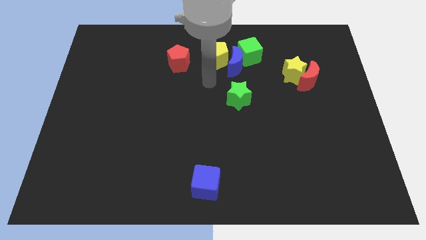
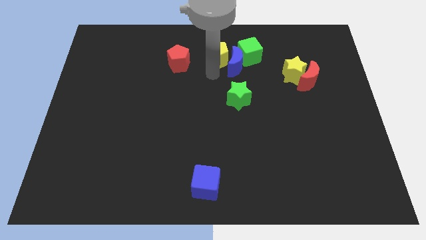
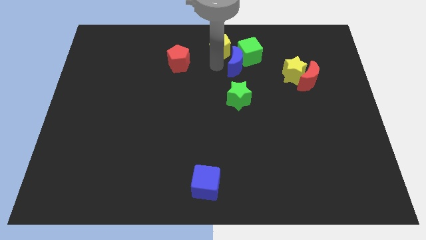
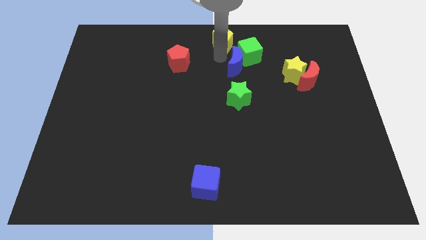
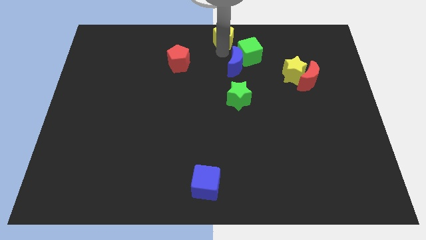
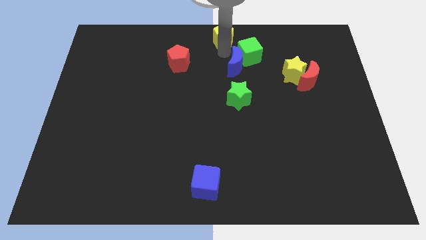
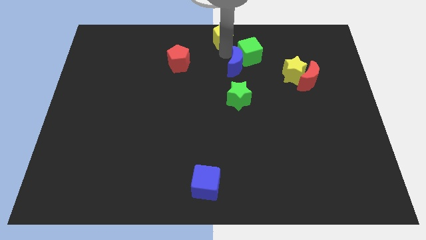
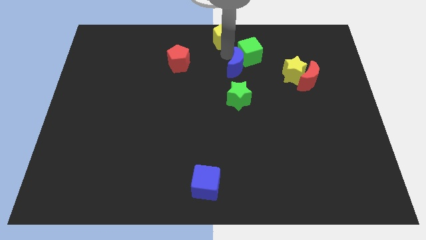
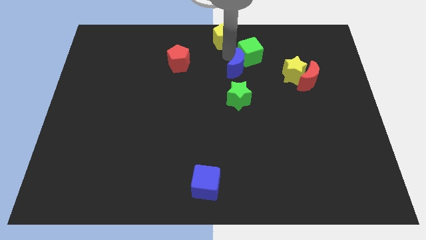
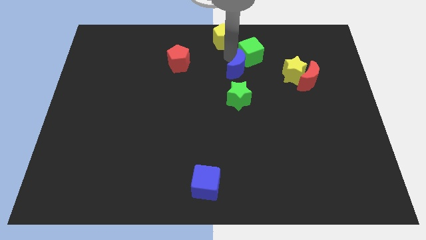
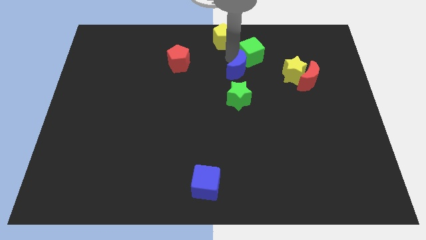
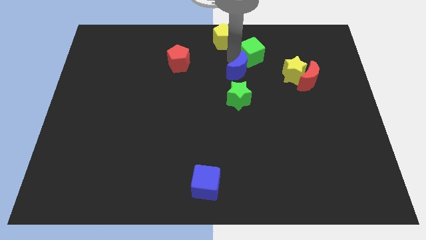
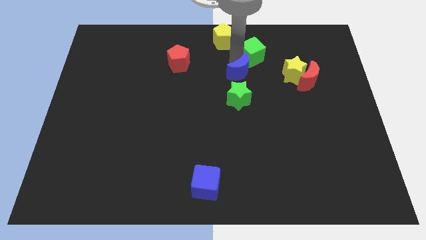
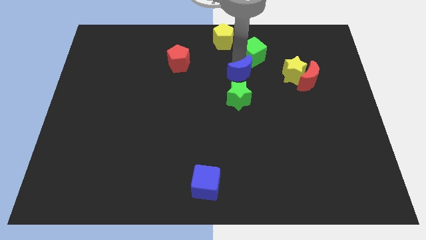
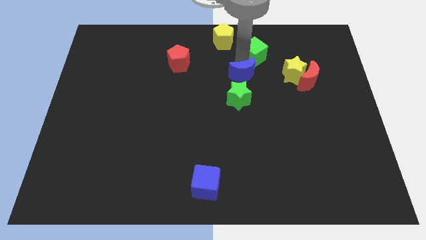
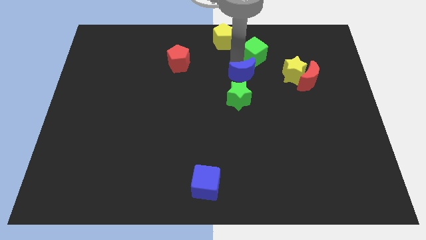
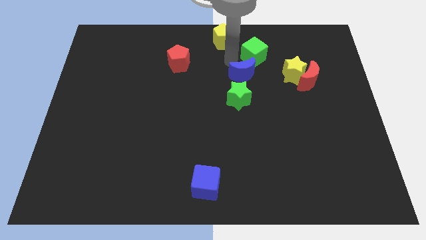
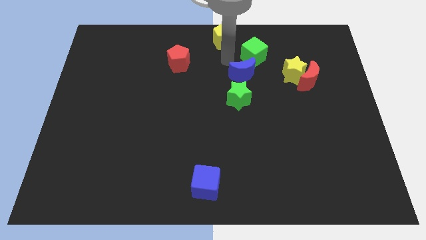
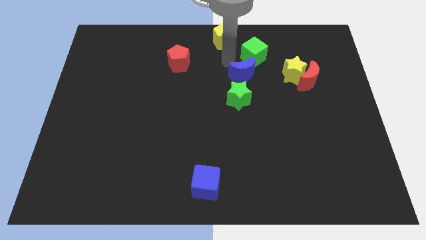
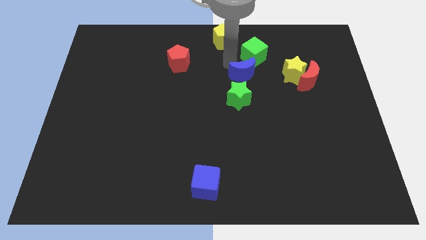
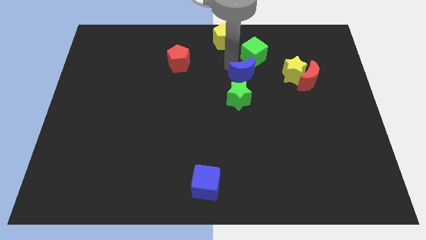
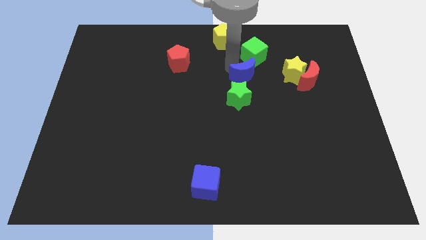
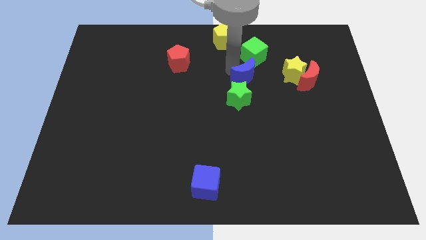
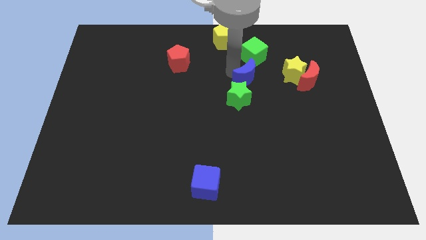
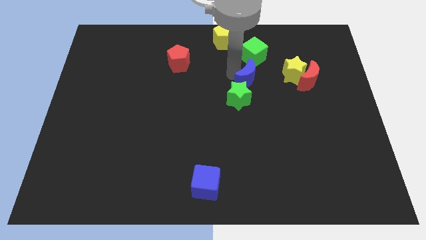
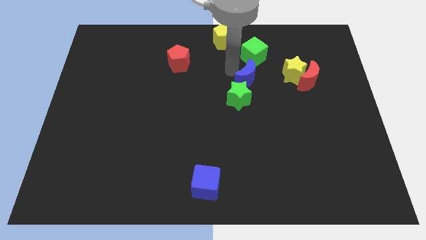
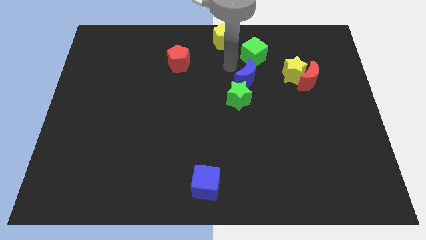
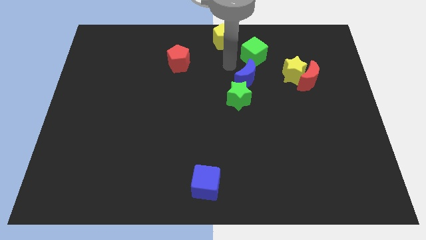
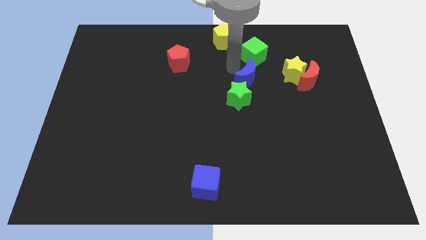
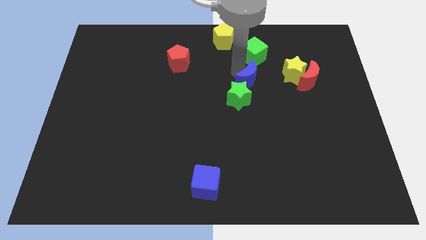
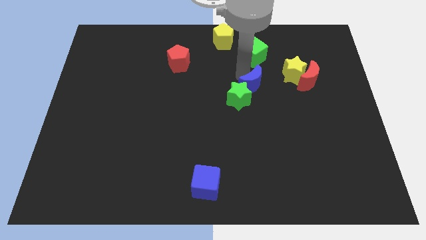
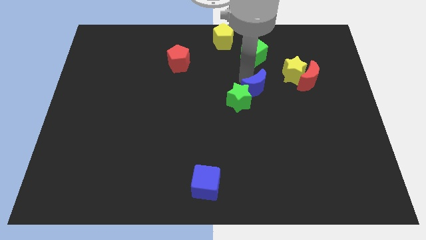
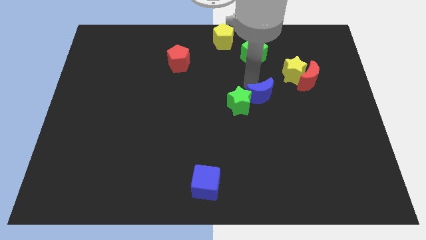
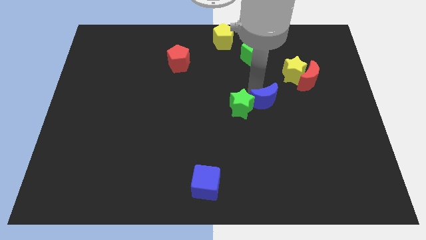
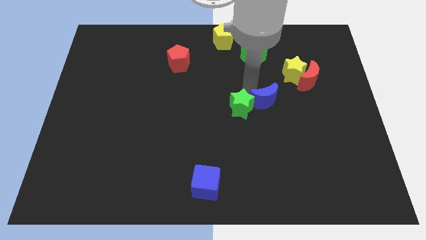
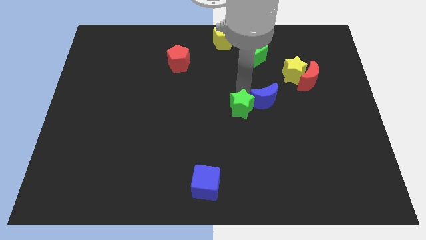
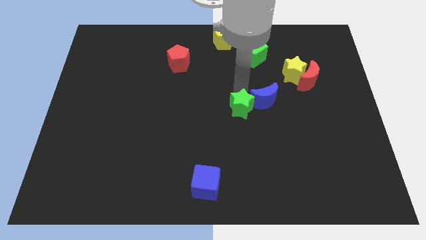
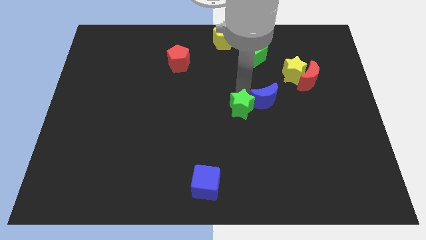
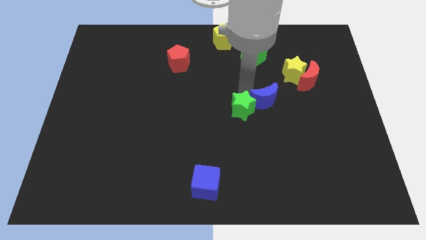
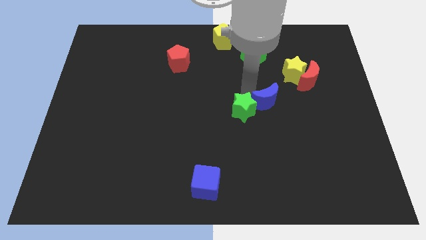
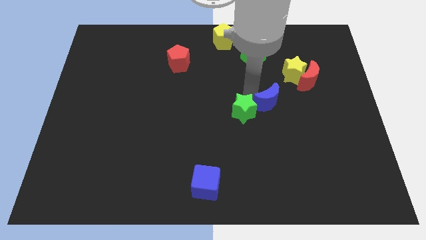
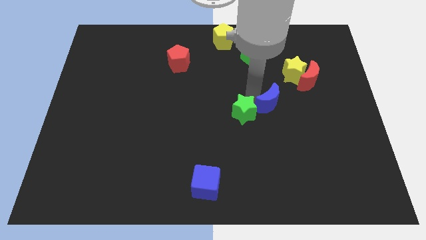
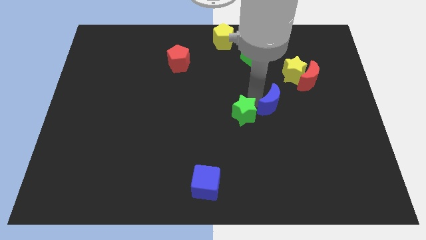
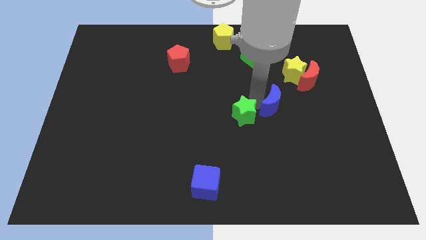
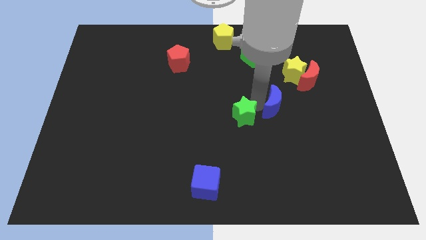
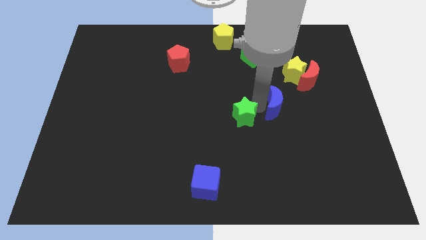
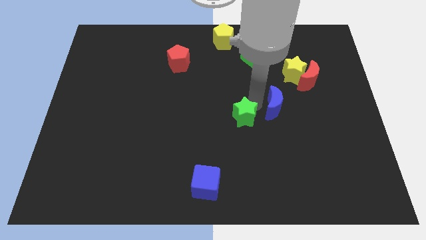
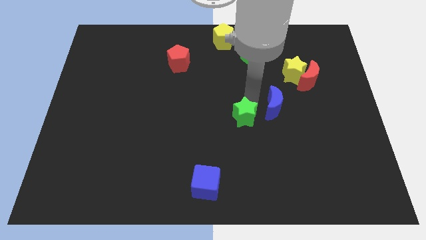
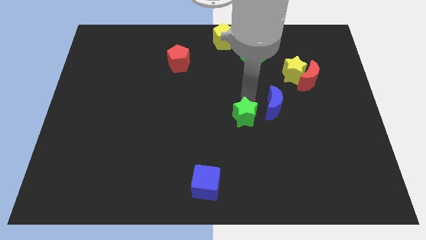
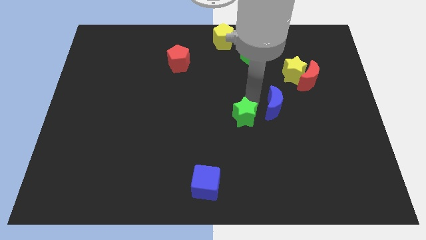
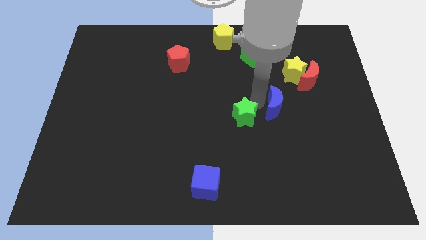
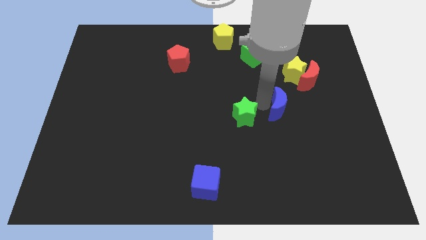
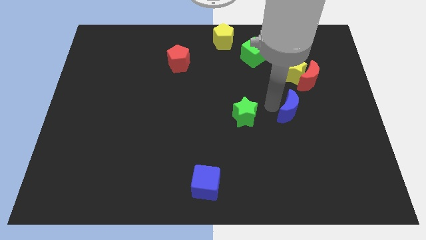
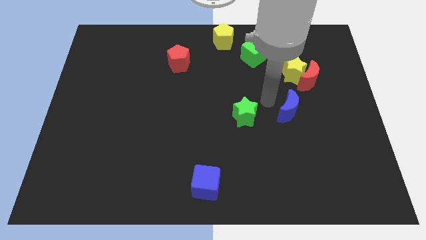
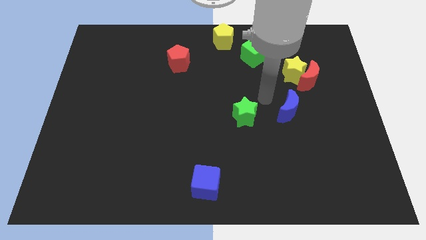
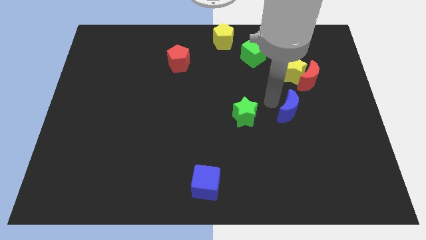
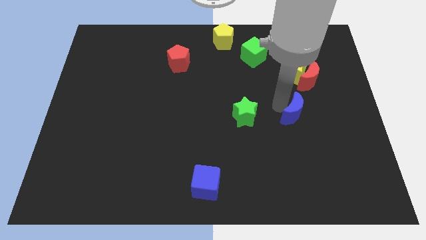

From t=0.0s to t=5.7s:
push the blue moon downwards and right diagonally

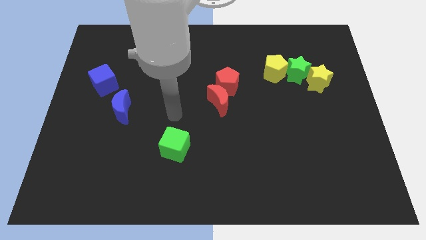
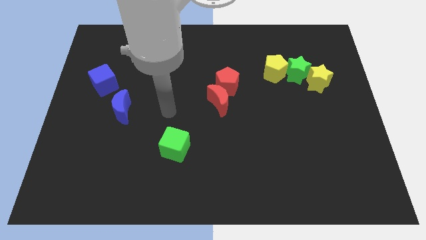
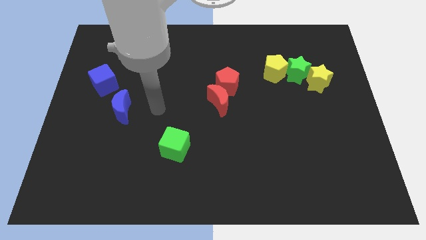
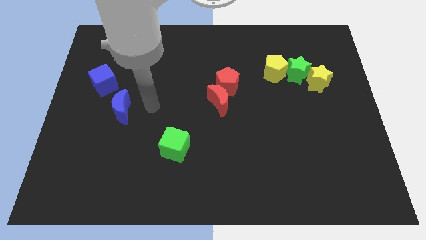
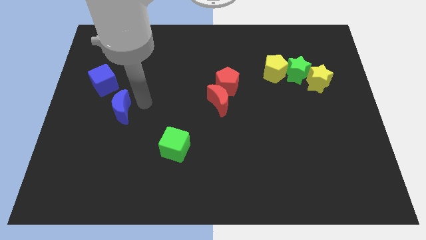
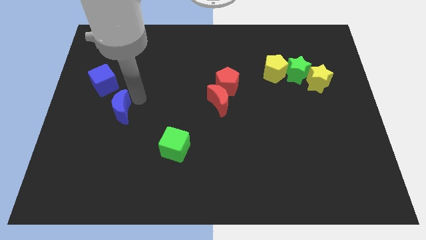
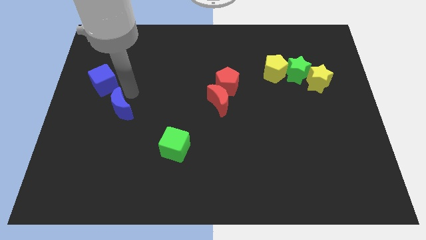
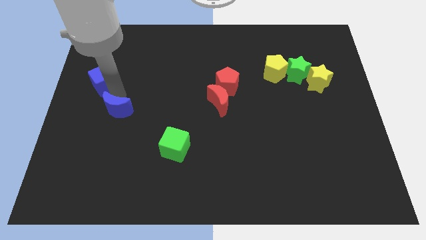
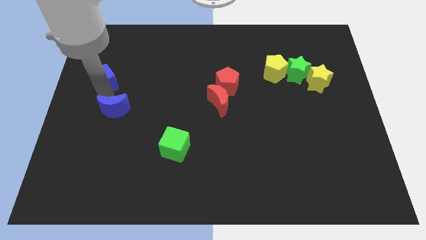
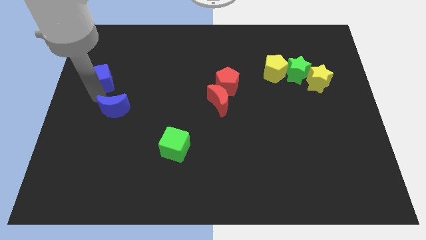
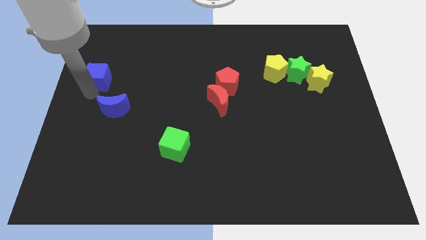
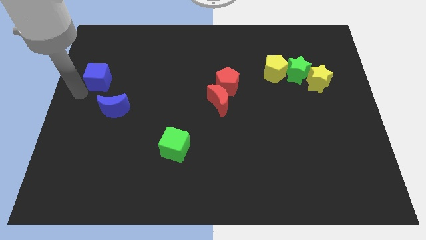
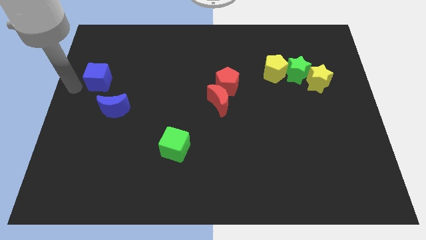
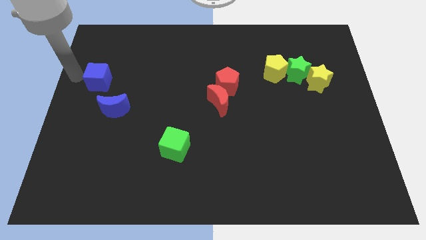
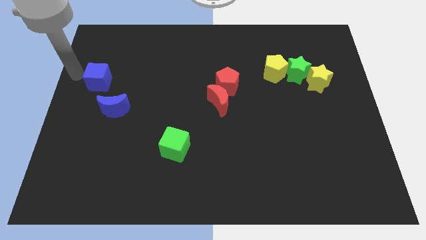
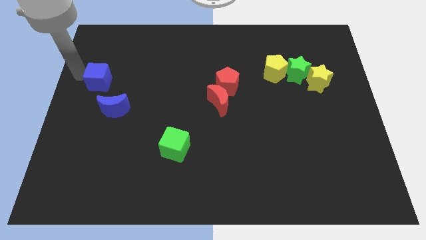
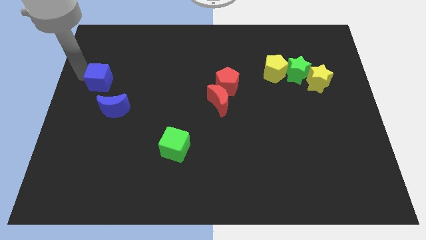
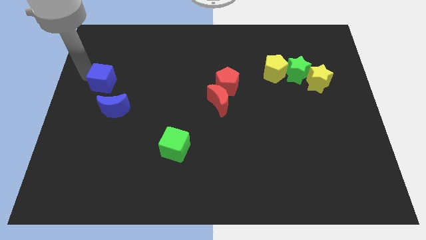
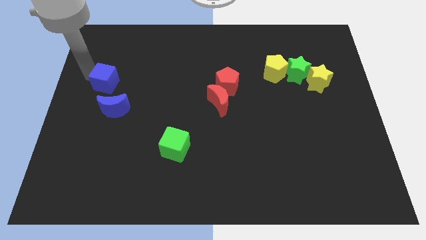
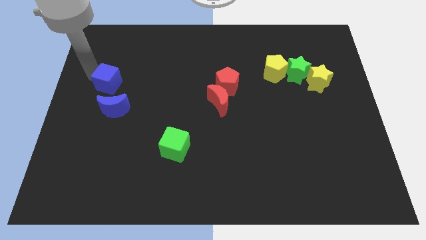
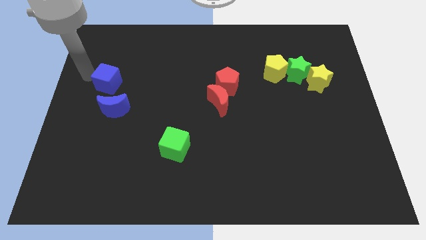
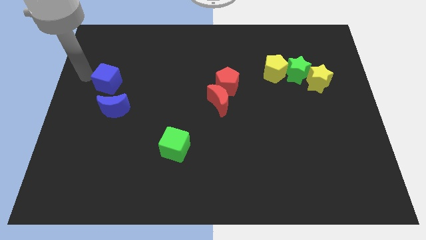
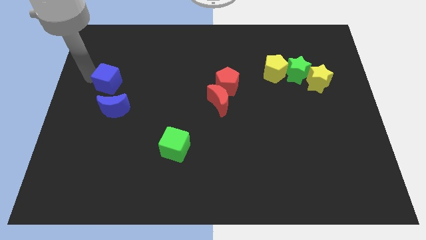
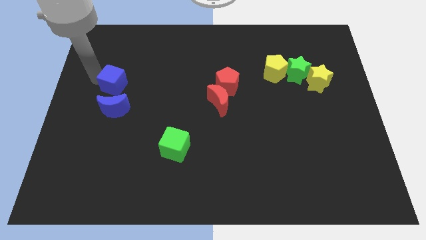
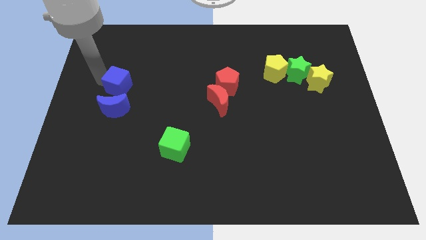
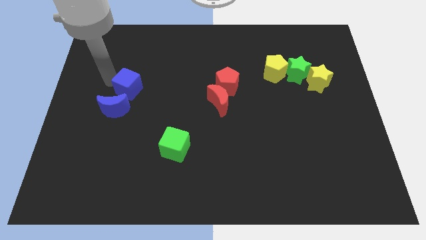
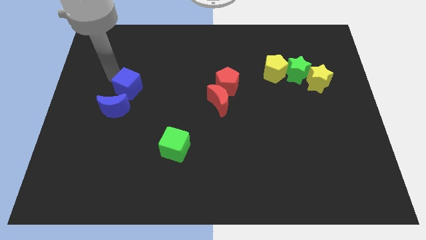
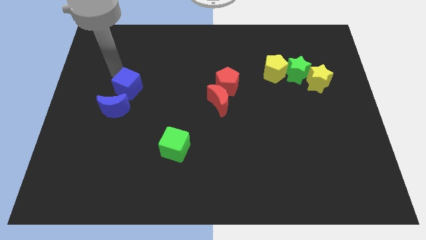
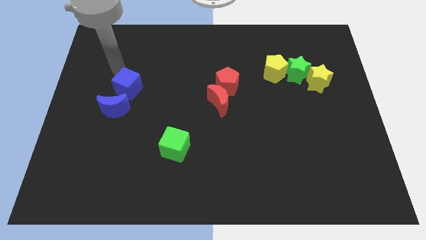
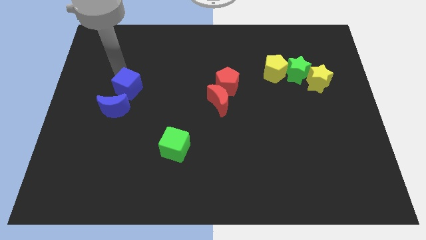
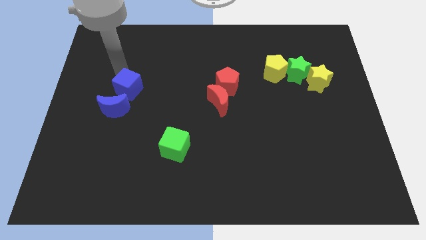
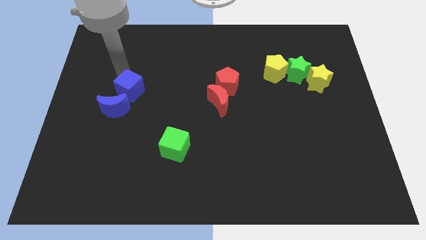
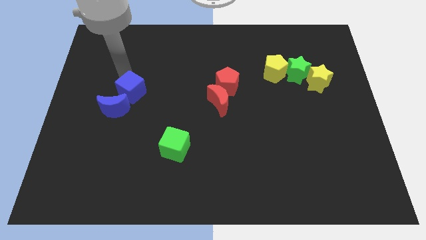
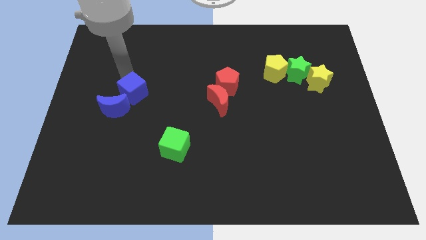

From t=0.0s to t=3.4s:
push the blue cube downwards and right a bit
